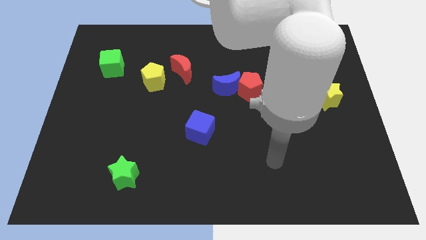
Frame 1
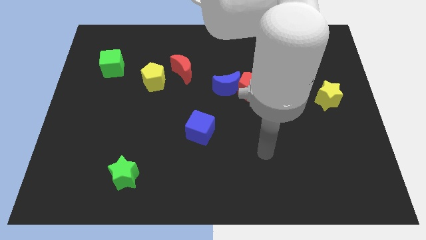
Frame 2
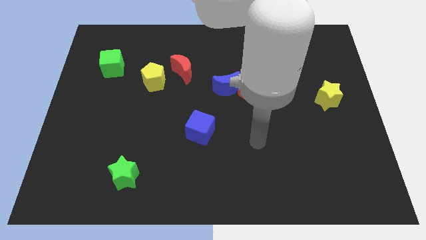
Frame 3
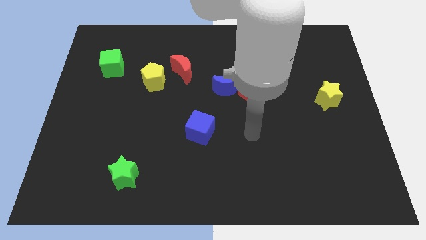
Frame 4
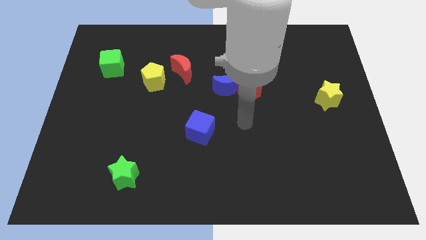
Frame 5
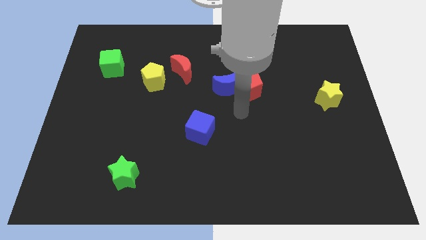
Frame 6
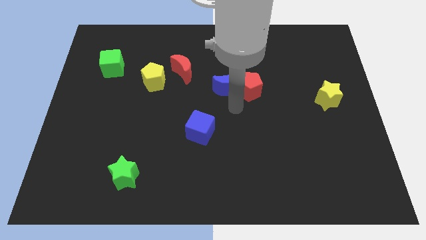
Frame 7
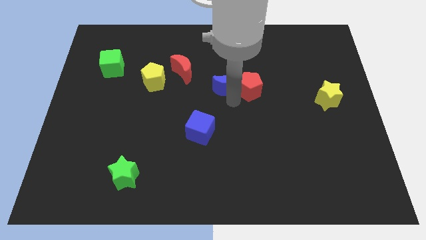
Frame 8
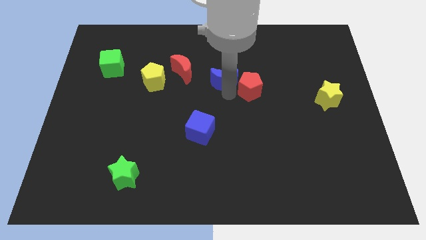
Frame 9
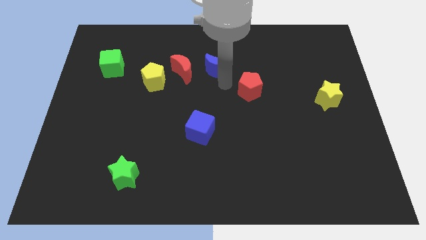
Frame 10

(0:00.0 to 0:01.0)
separate the red pentagon from the blue moon

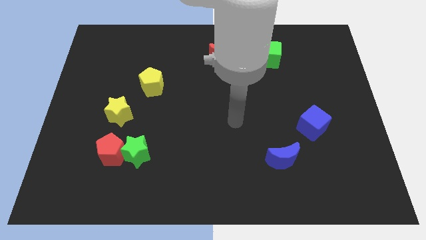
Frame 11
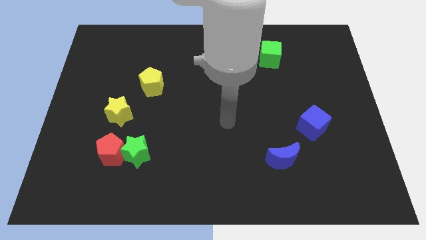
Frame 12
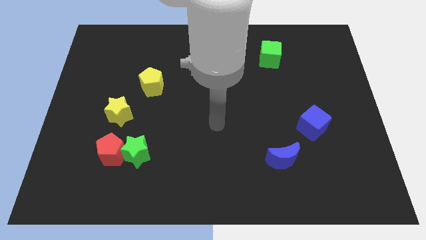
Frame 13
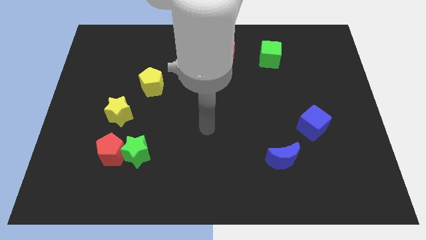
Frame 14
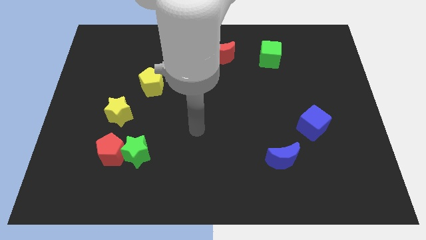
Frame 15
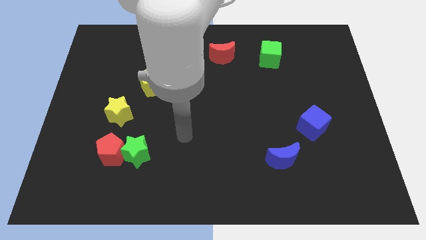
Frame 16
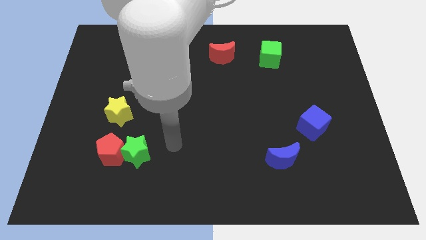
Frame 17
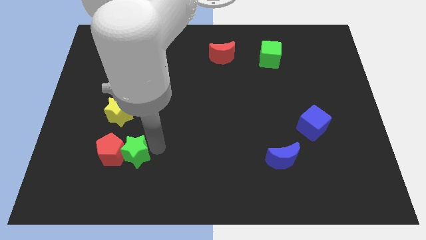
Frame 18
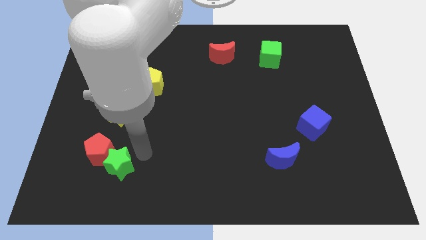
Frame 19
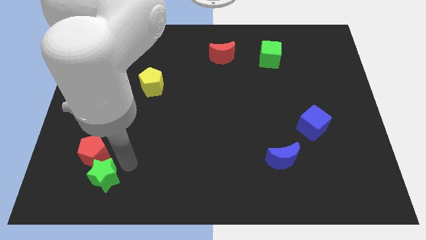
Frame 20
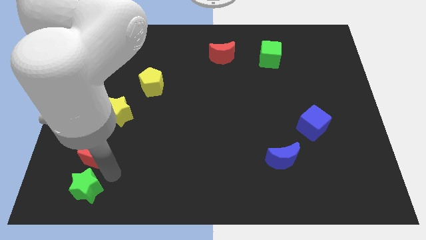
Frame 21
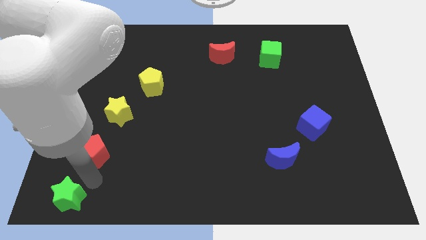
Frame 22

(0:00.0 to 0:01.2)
pull the red pentagon apart from the green star

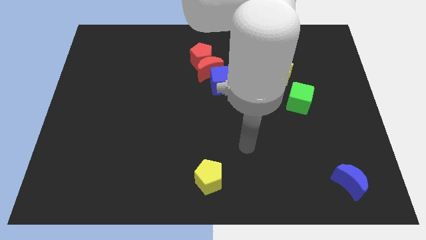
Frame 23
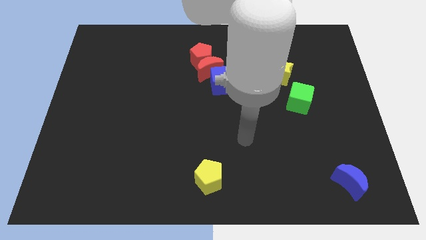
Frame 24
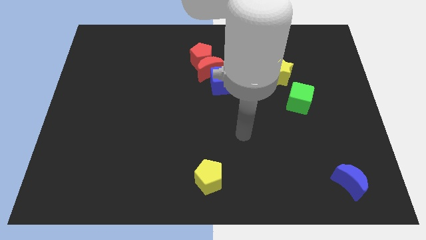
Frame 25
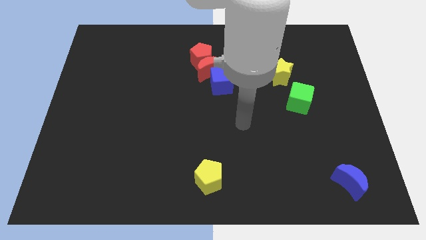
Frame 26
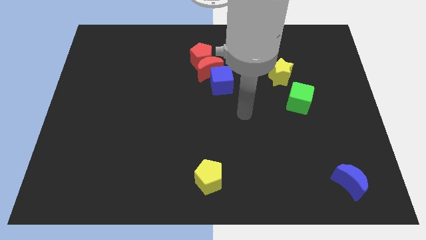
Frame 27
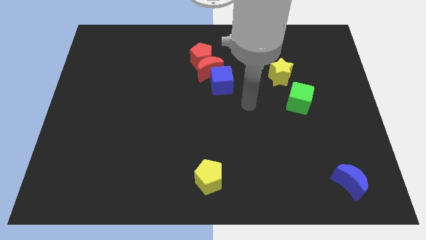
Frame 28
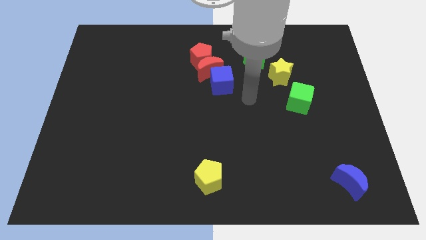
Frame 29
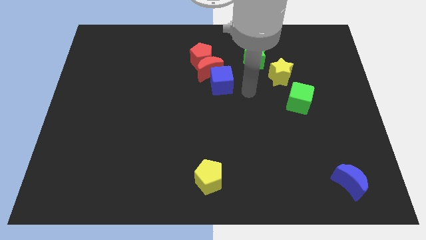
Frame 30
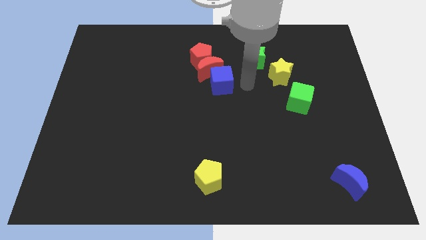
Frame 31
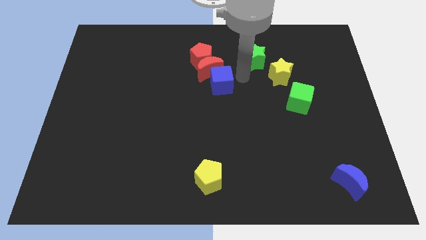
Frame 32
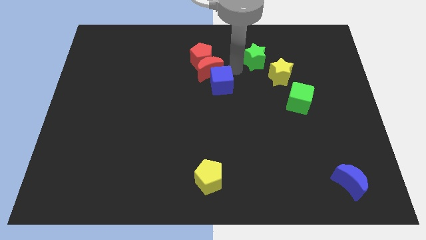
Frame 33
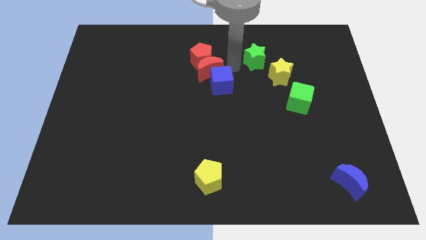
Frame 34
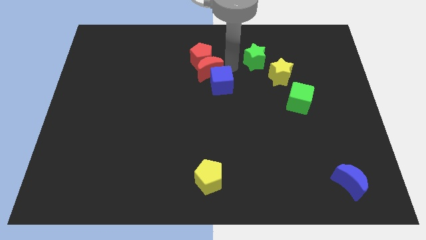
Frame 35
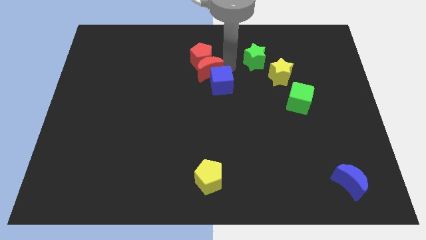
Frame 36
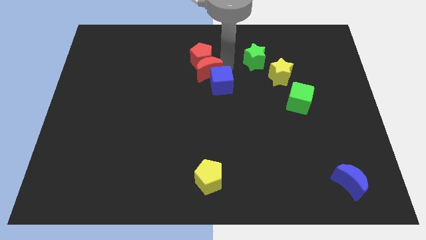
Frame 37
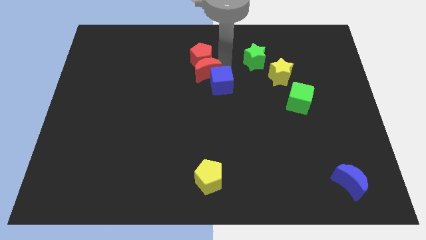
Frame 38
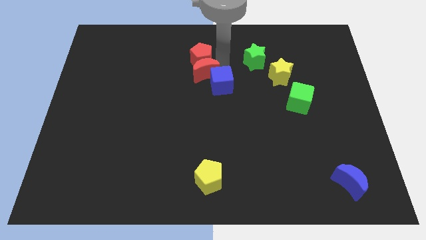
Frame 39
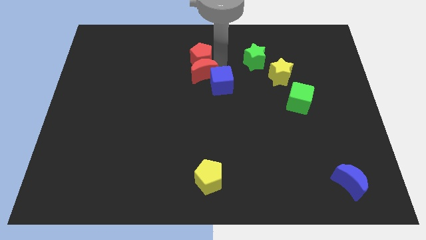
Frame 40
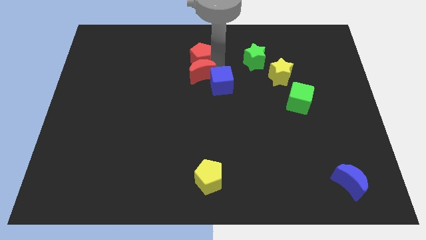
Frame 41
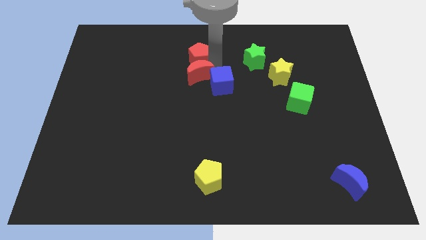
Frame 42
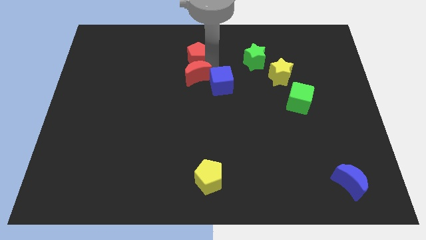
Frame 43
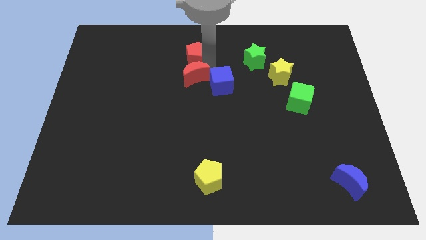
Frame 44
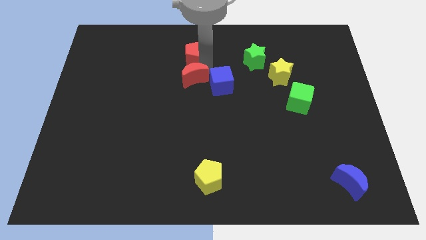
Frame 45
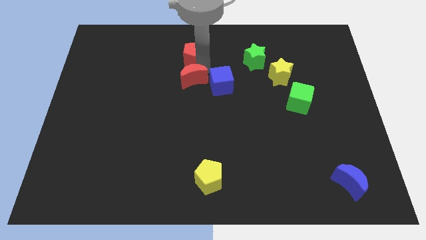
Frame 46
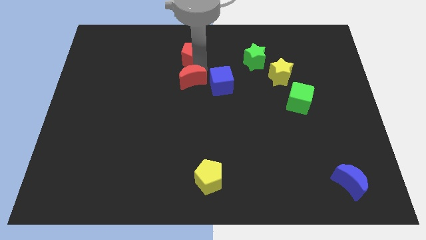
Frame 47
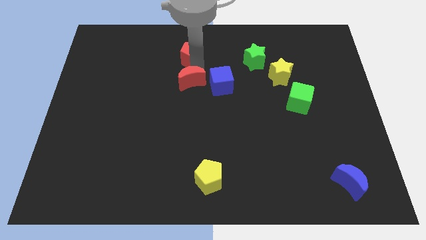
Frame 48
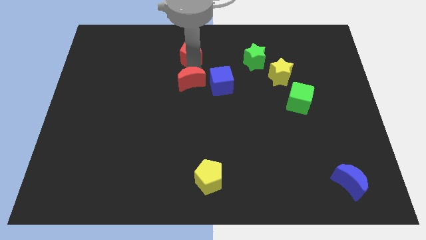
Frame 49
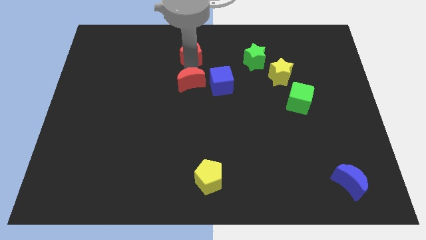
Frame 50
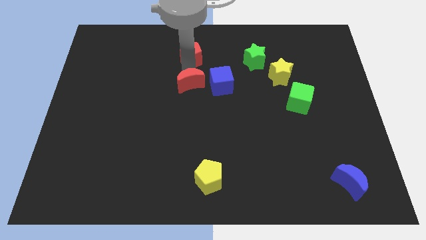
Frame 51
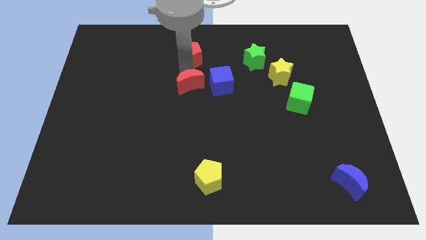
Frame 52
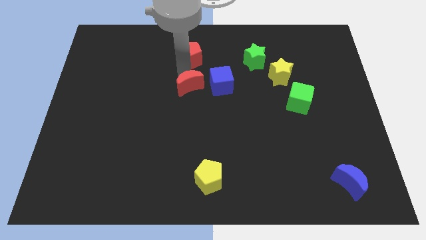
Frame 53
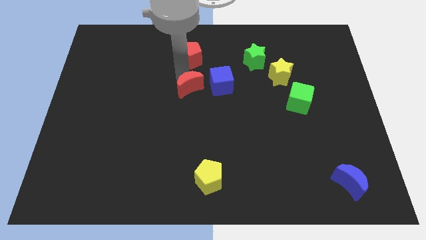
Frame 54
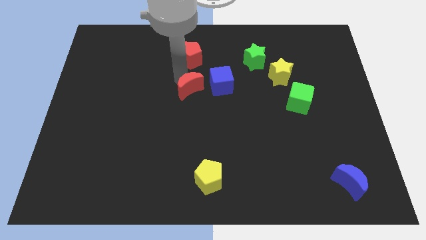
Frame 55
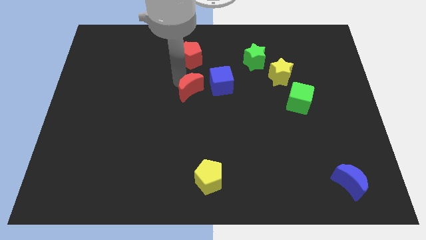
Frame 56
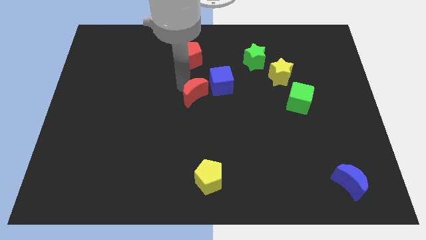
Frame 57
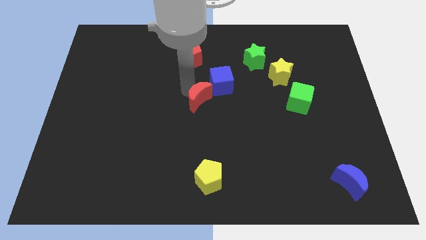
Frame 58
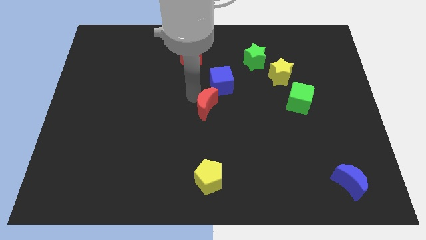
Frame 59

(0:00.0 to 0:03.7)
move the red moon away from the red pentagon and blue cube

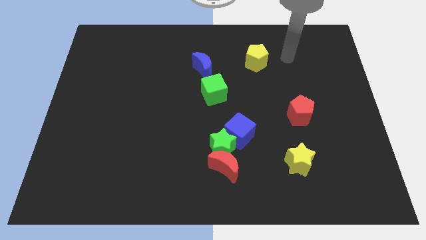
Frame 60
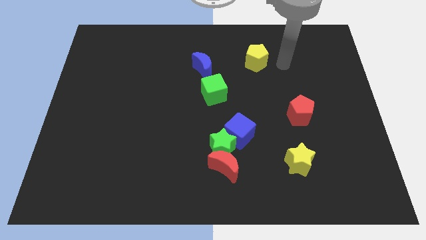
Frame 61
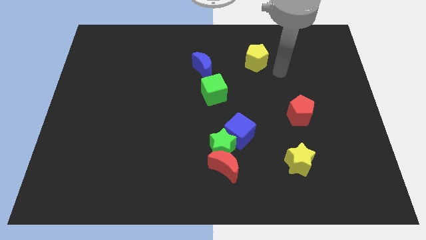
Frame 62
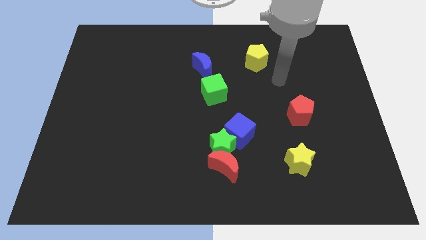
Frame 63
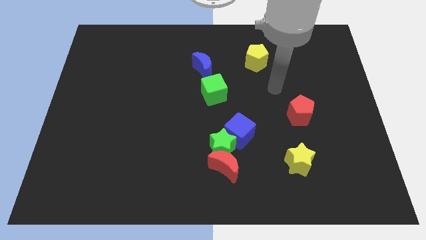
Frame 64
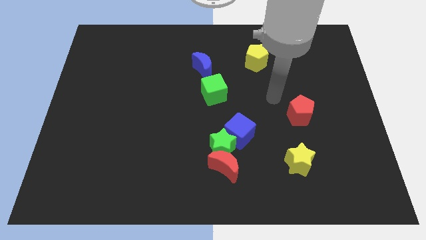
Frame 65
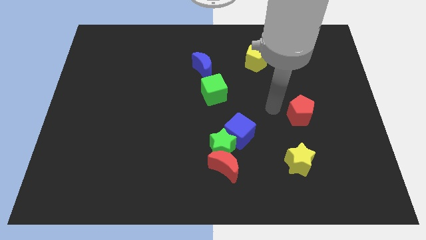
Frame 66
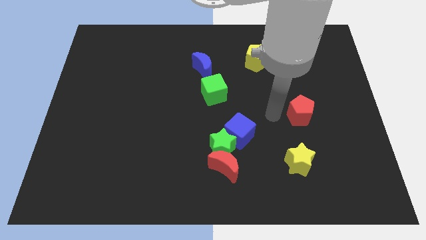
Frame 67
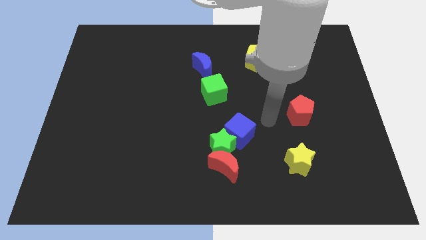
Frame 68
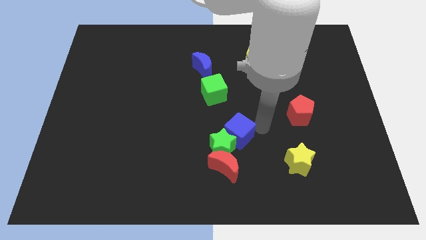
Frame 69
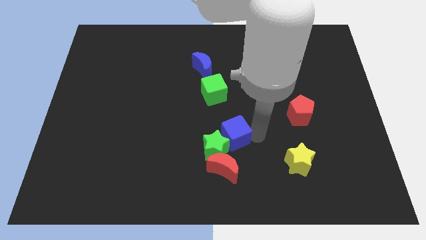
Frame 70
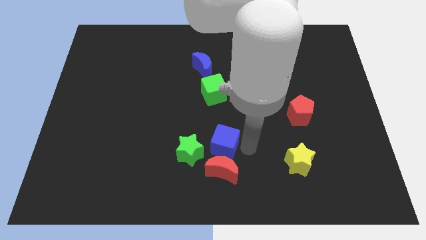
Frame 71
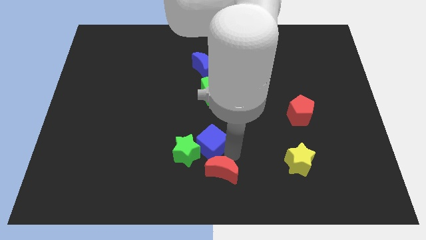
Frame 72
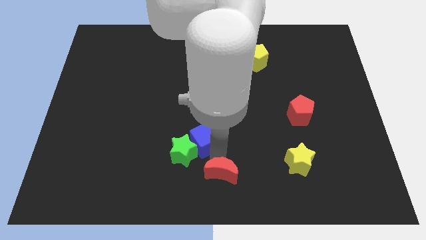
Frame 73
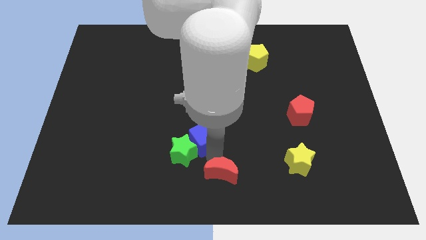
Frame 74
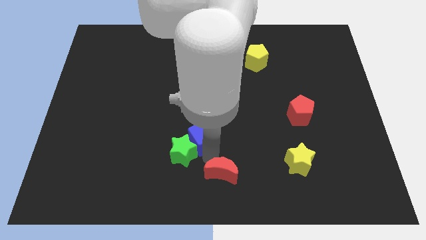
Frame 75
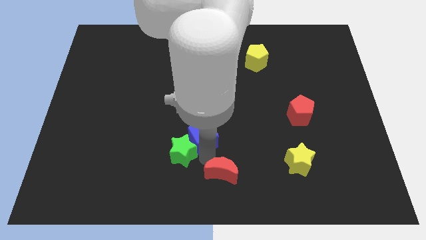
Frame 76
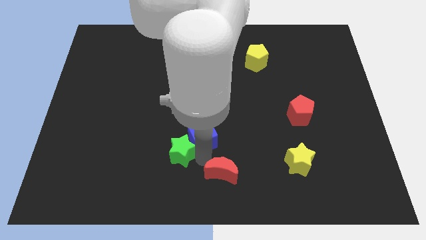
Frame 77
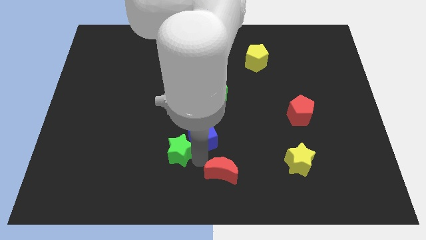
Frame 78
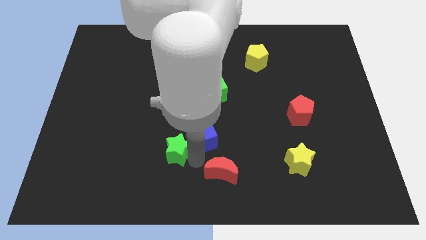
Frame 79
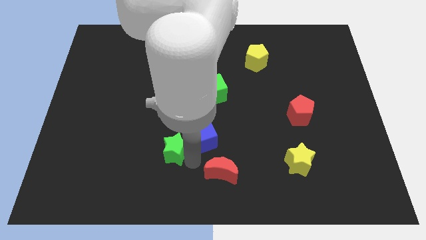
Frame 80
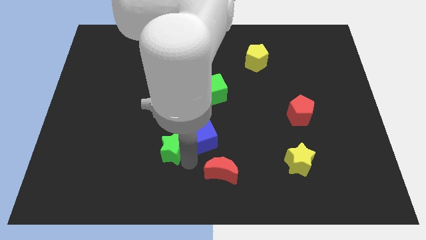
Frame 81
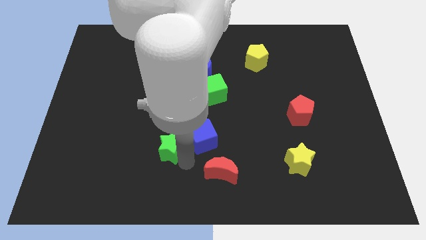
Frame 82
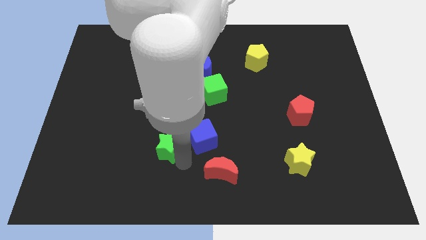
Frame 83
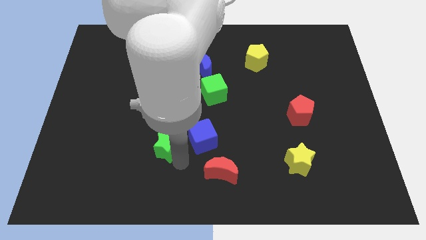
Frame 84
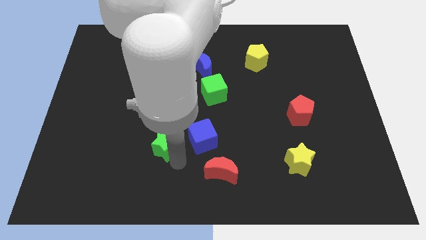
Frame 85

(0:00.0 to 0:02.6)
move the green star away from the red moon and blue cube

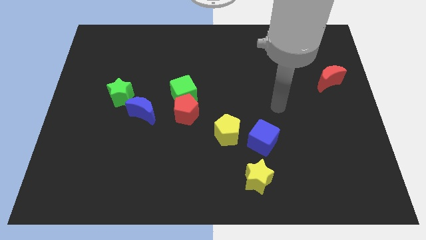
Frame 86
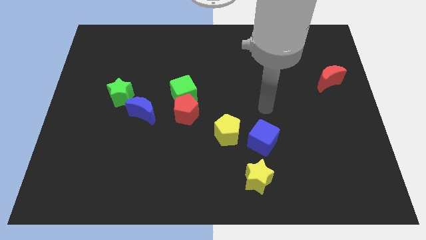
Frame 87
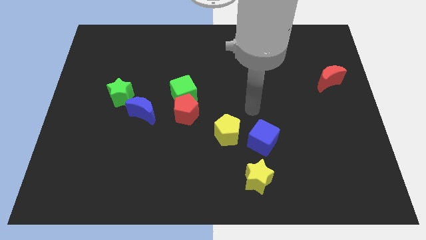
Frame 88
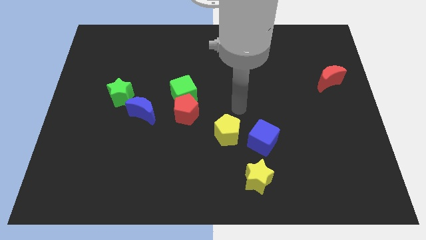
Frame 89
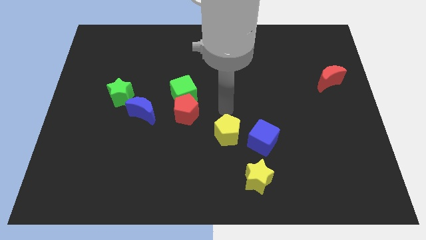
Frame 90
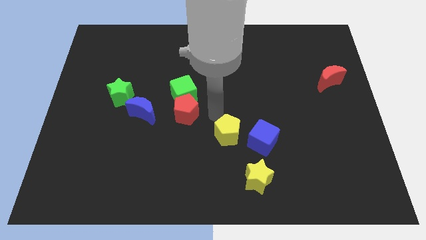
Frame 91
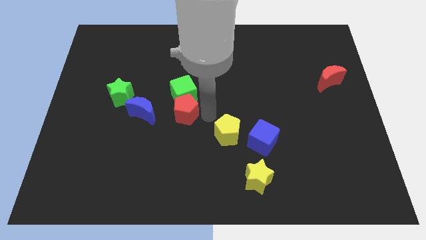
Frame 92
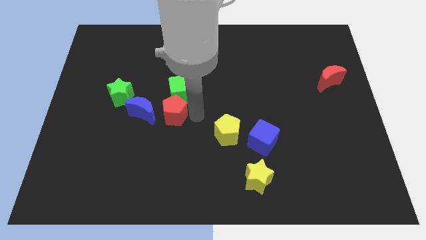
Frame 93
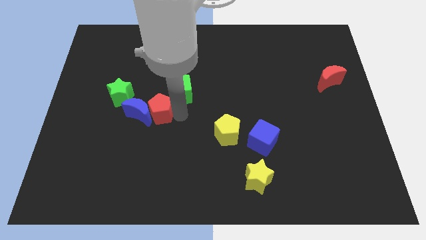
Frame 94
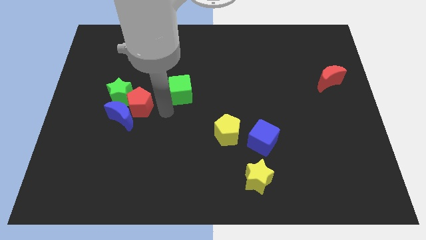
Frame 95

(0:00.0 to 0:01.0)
move the green cube away from the red pentagon
